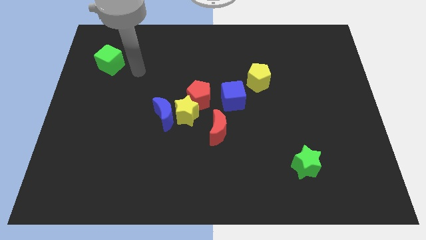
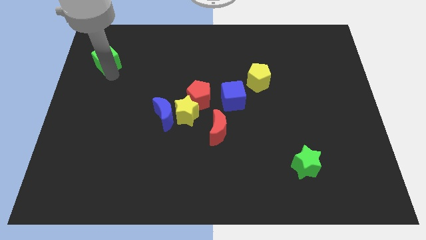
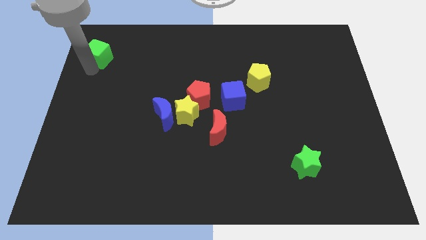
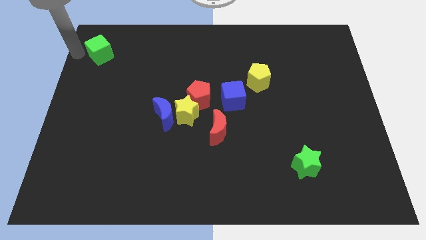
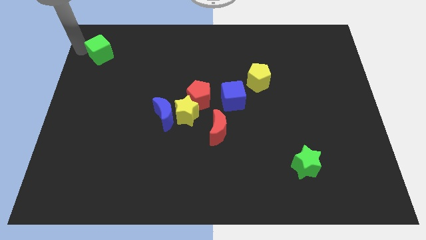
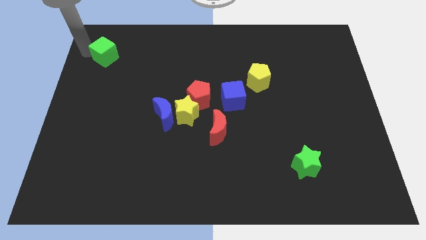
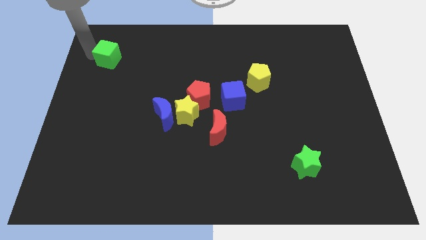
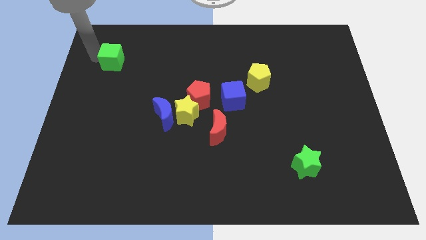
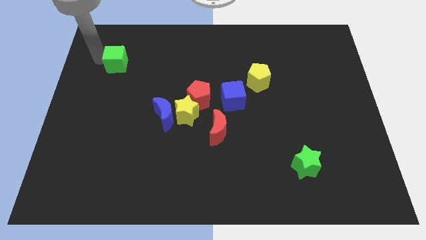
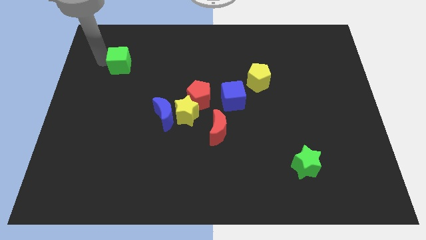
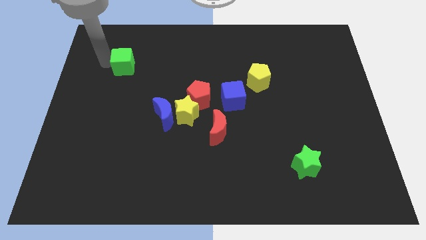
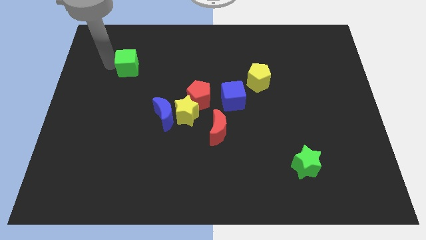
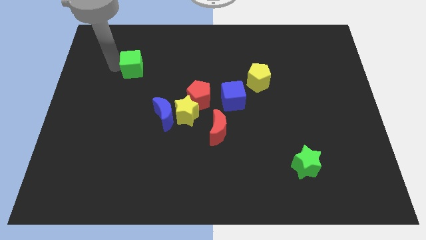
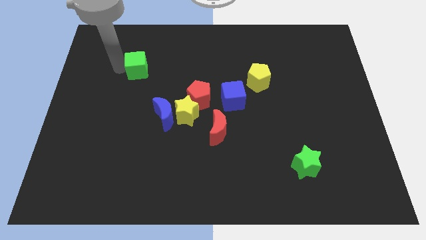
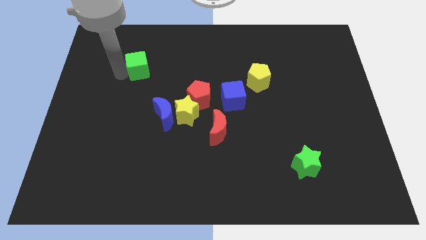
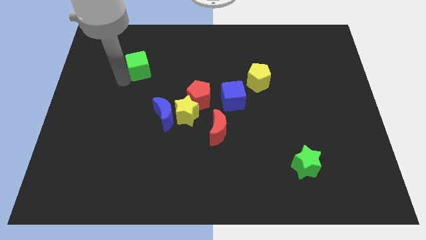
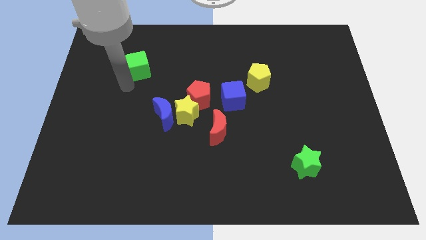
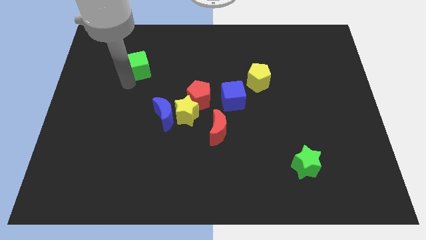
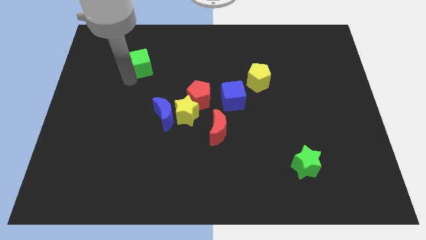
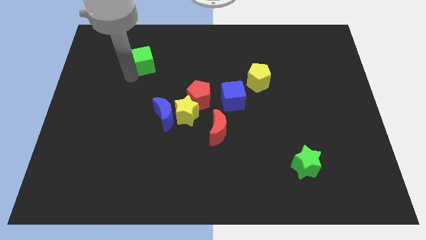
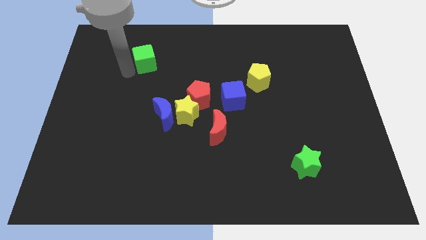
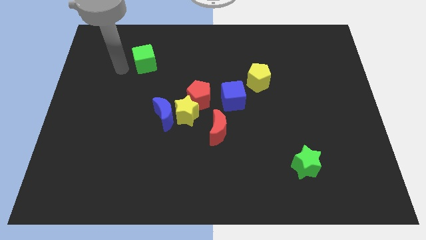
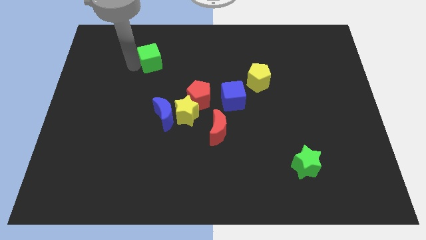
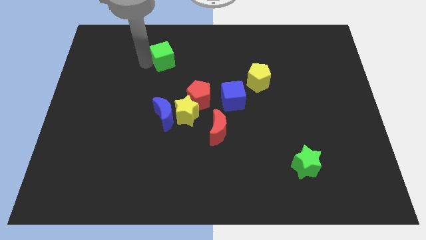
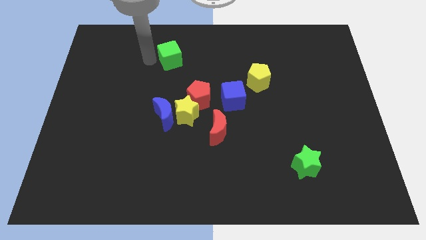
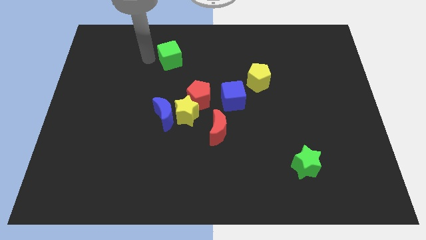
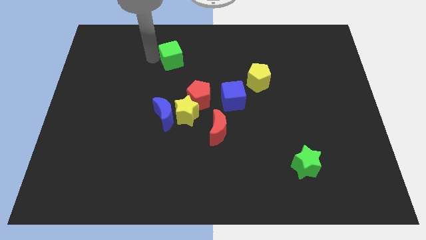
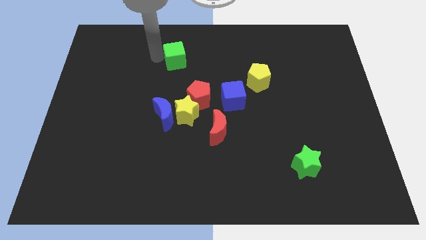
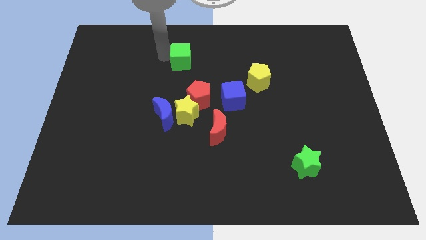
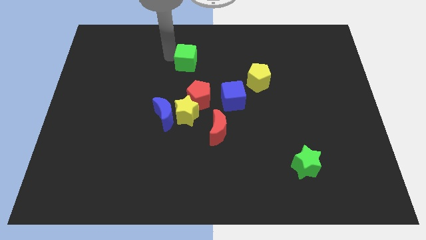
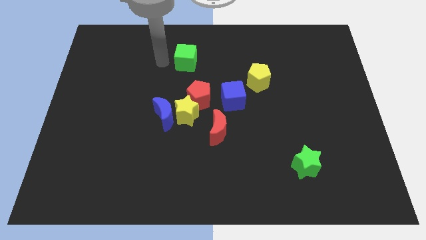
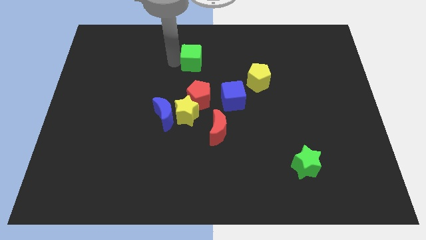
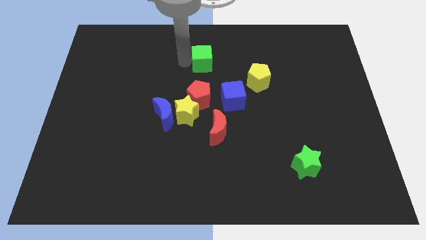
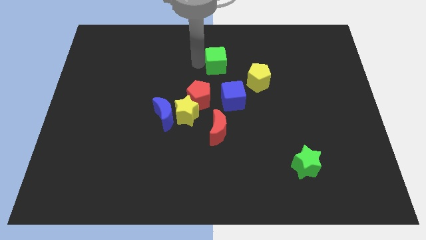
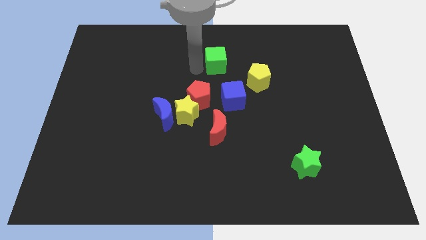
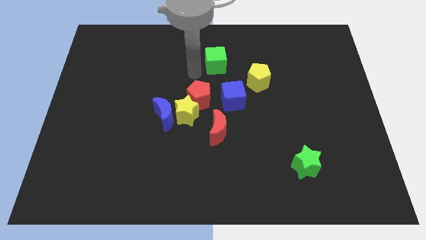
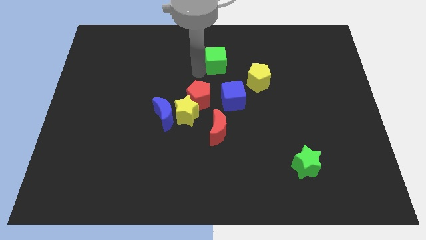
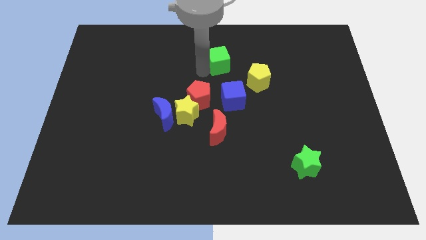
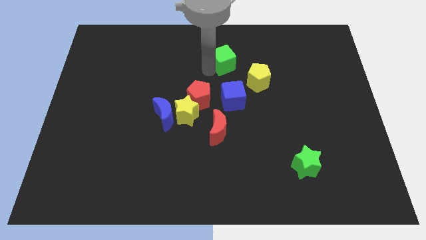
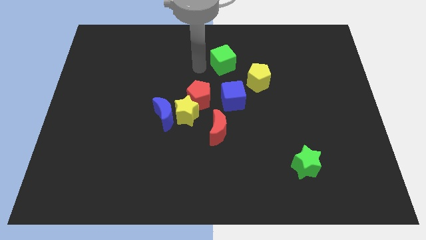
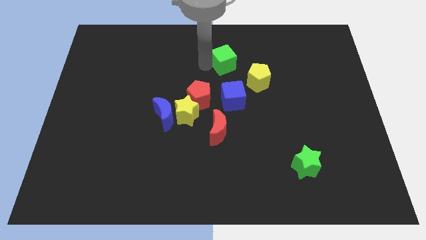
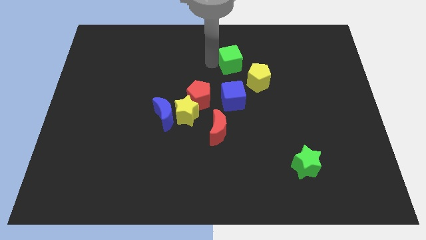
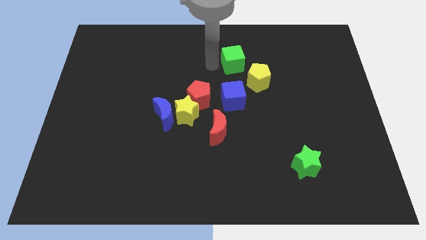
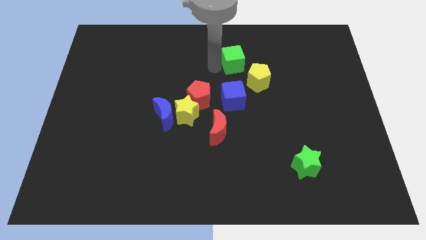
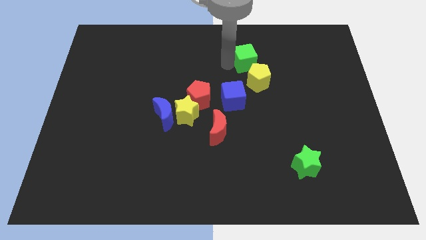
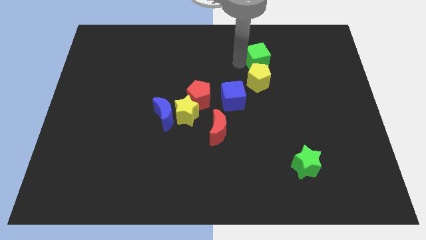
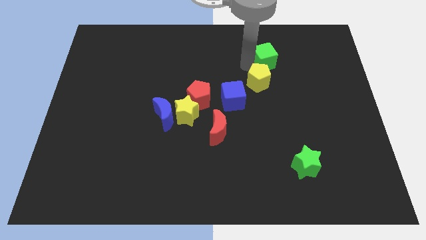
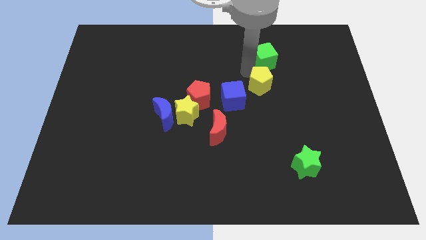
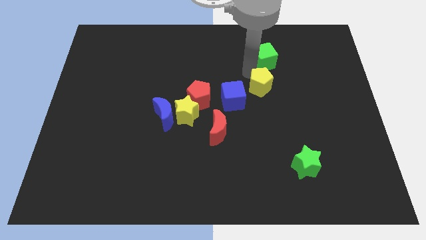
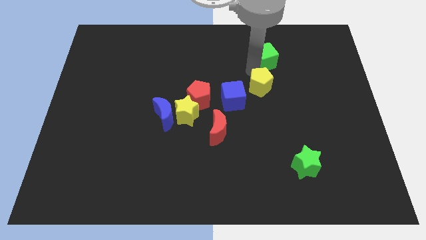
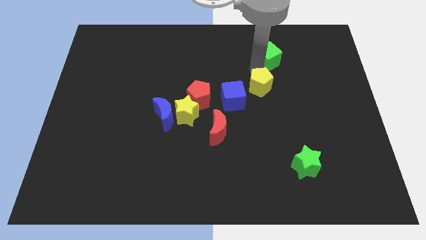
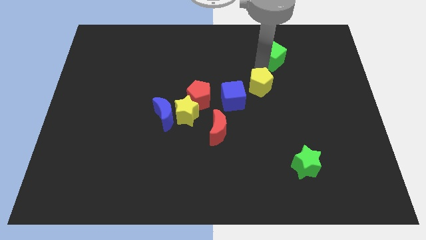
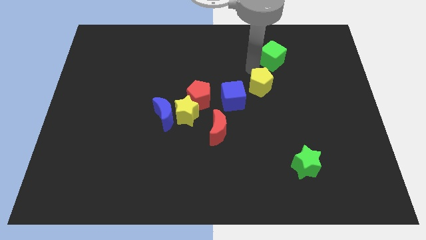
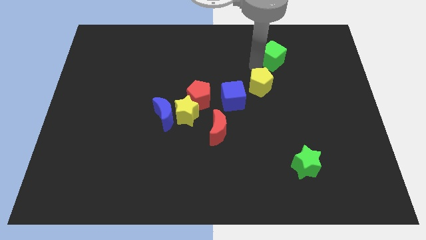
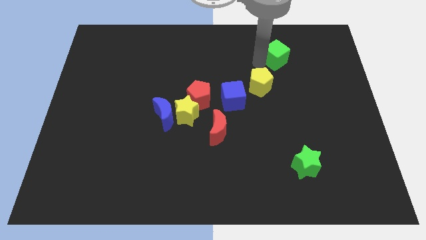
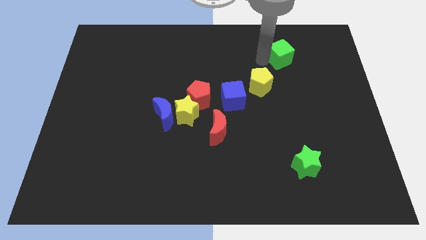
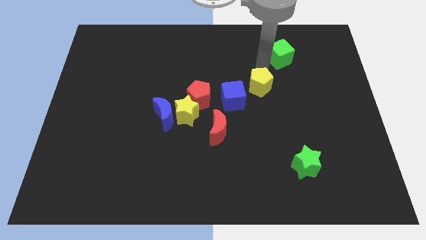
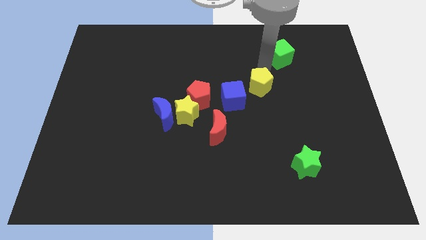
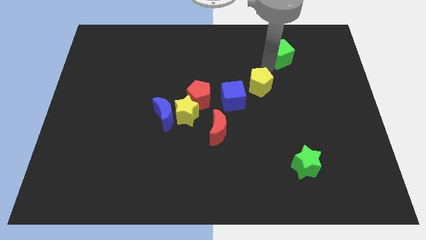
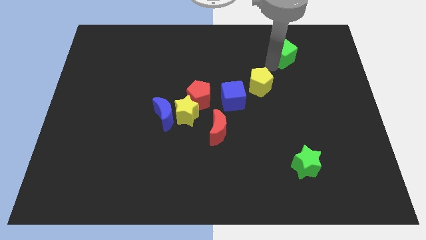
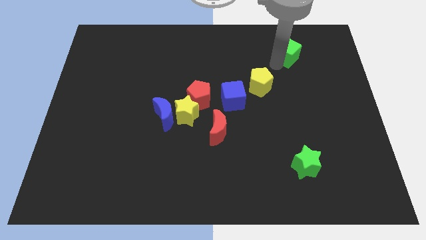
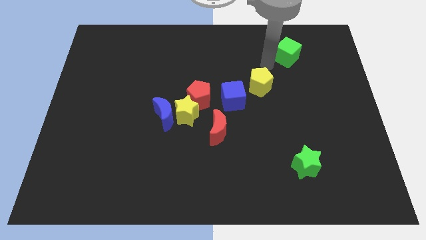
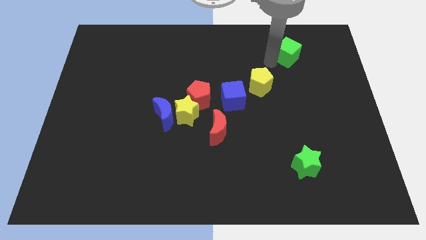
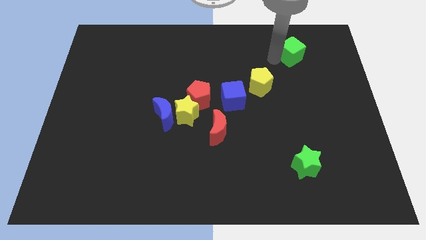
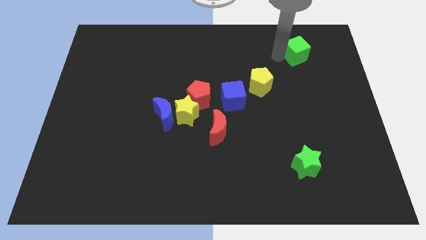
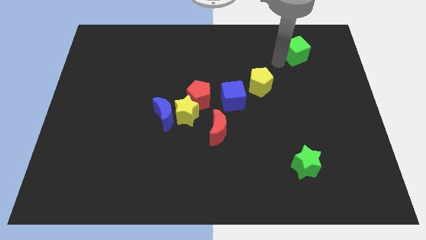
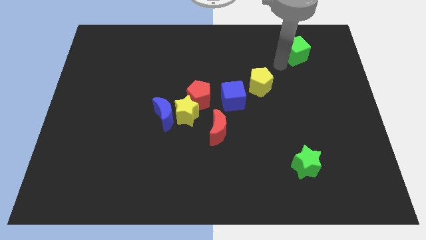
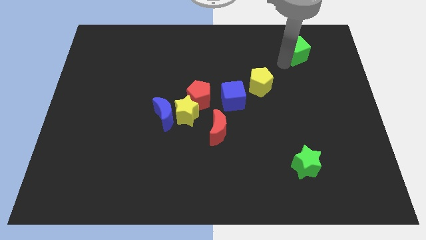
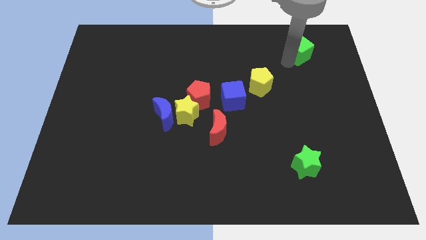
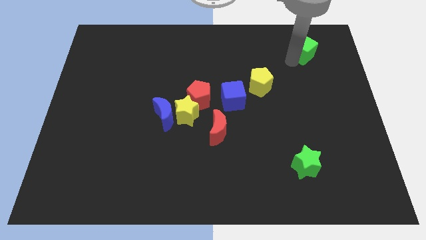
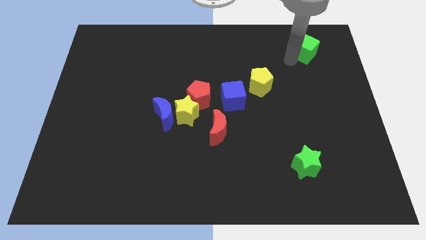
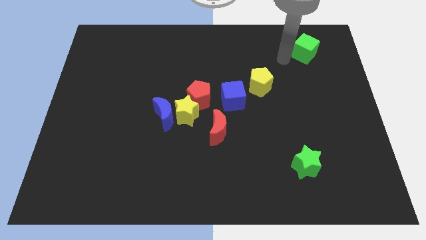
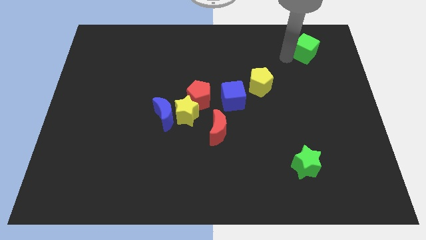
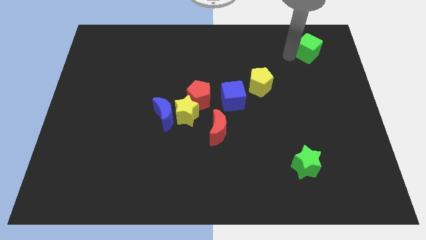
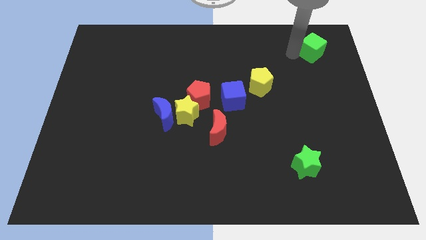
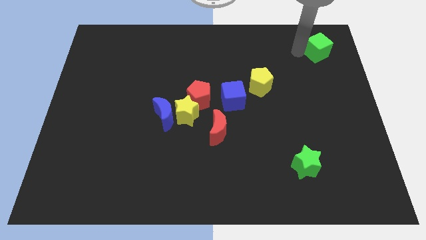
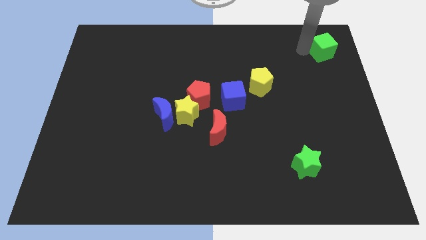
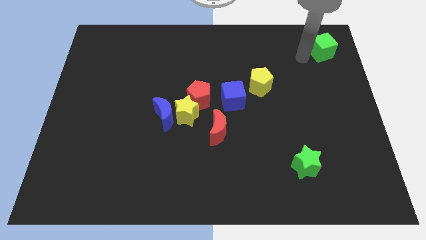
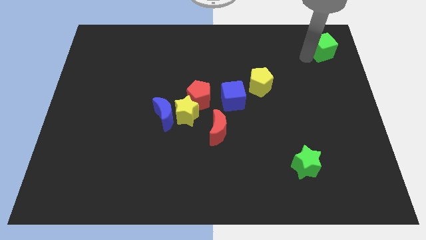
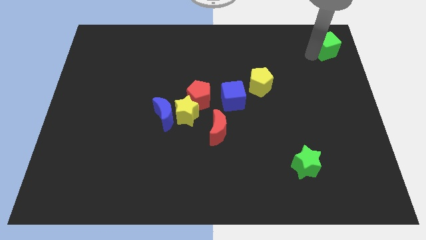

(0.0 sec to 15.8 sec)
move the green cube to the top right of the board
